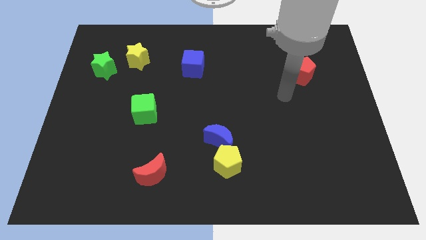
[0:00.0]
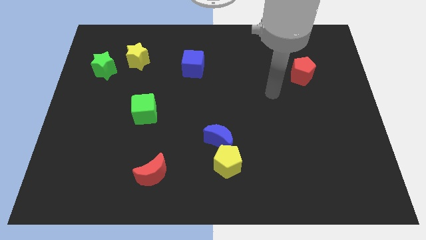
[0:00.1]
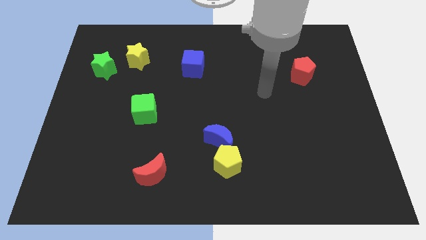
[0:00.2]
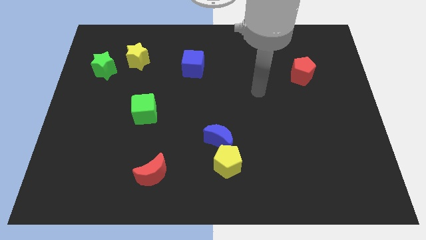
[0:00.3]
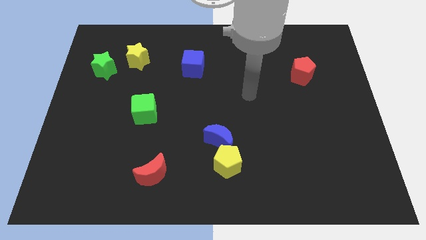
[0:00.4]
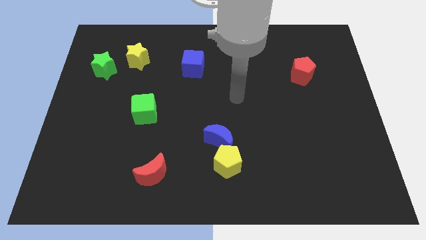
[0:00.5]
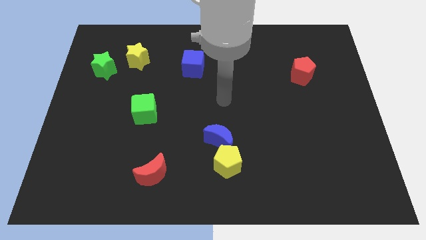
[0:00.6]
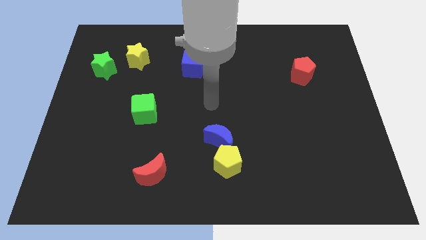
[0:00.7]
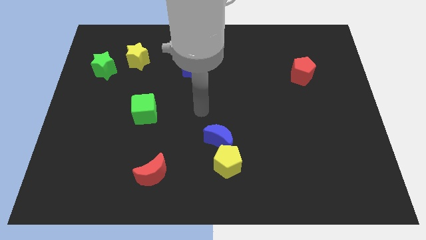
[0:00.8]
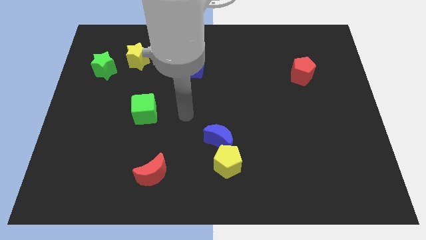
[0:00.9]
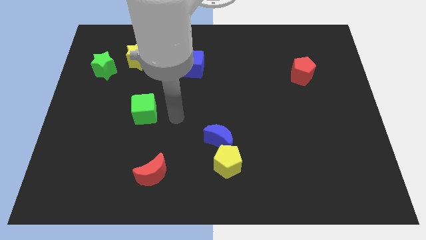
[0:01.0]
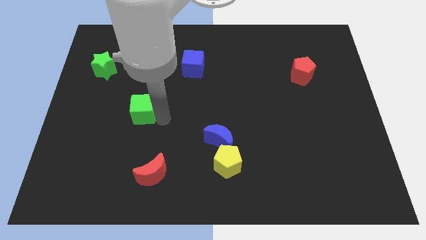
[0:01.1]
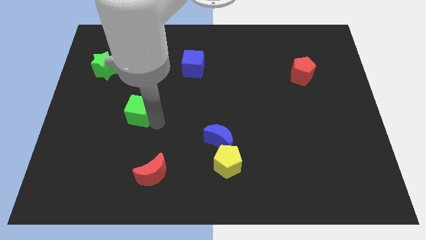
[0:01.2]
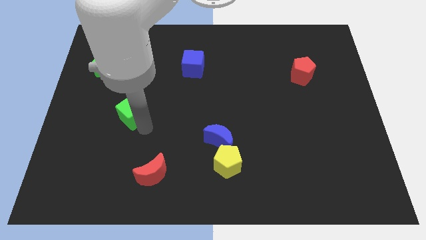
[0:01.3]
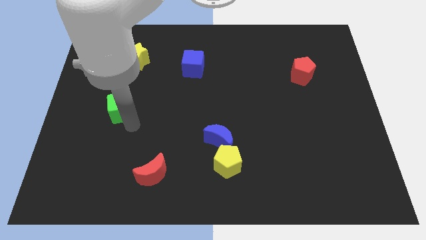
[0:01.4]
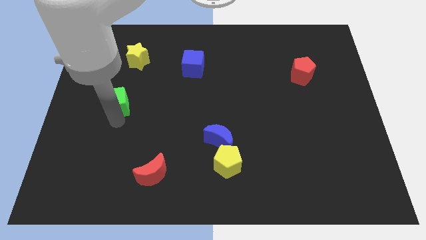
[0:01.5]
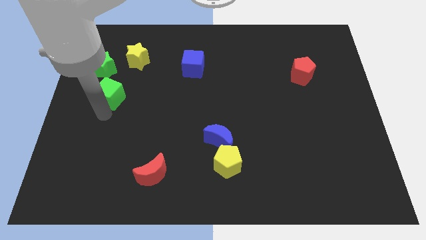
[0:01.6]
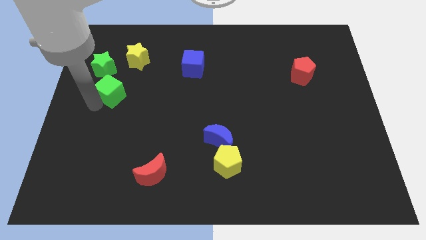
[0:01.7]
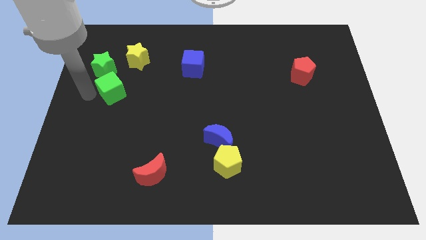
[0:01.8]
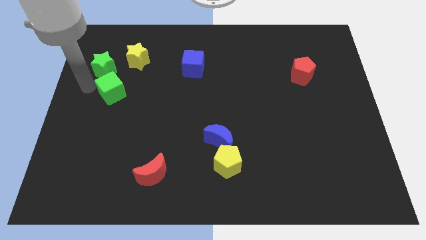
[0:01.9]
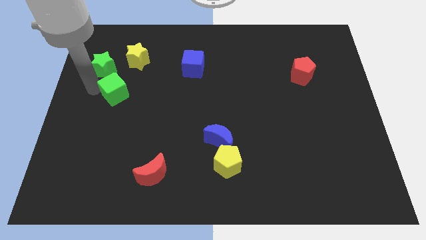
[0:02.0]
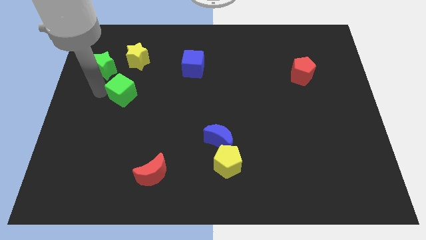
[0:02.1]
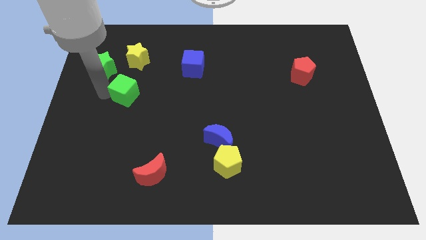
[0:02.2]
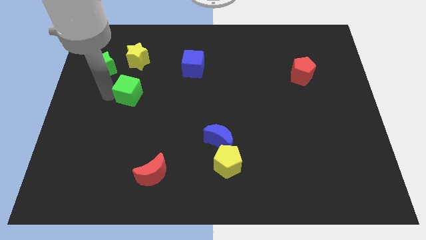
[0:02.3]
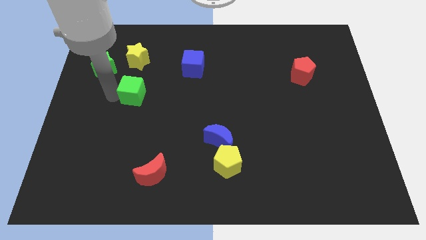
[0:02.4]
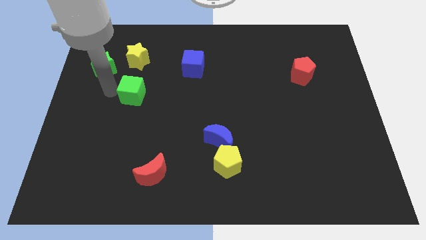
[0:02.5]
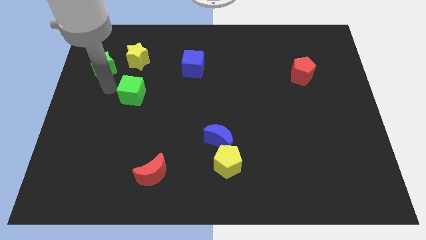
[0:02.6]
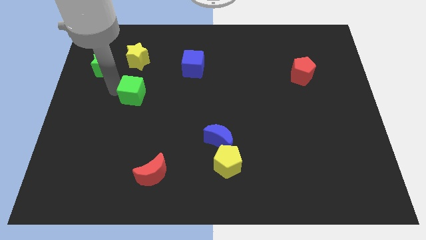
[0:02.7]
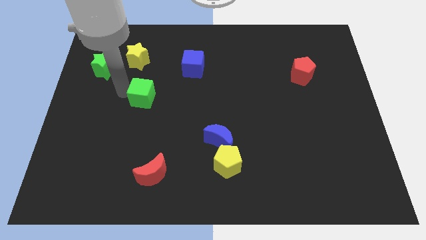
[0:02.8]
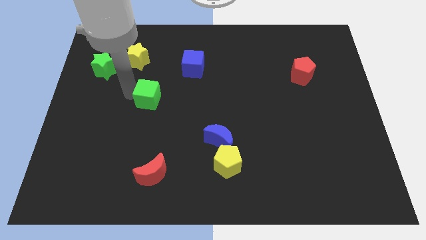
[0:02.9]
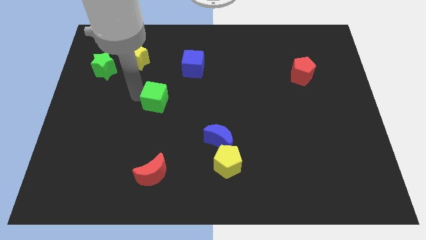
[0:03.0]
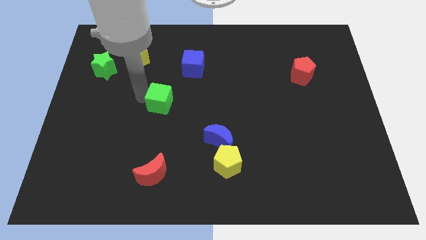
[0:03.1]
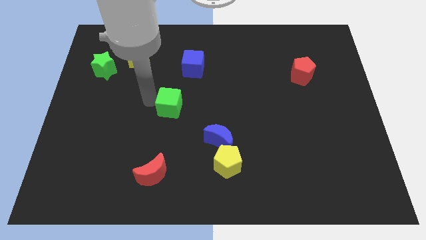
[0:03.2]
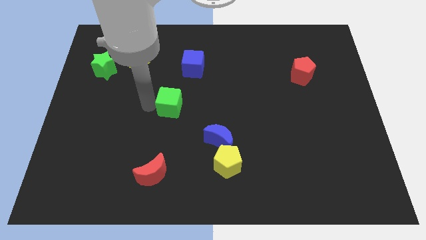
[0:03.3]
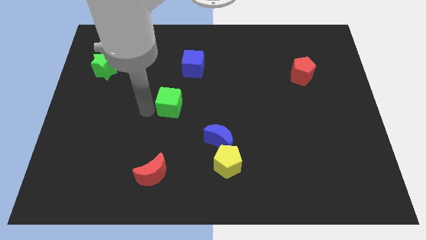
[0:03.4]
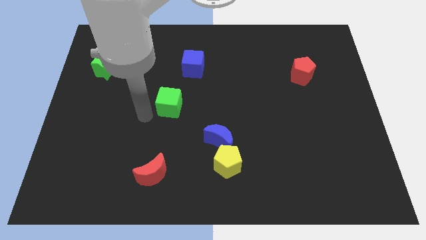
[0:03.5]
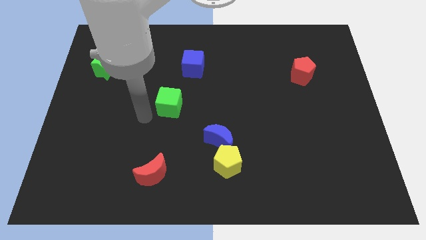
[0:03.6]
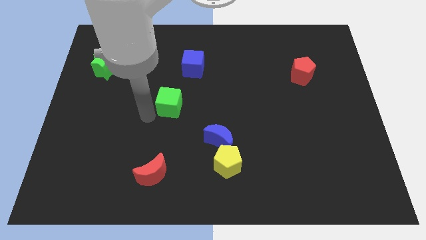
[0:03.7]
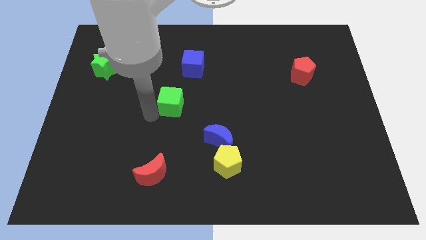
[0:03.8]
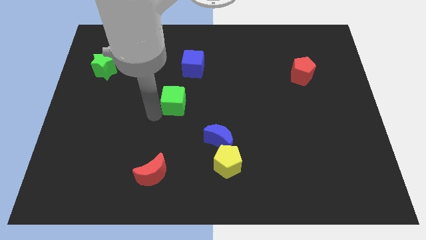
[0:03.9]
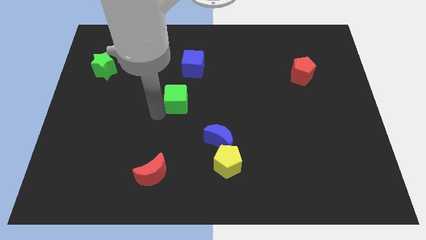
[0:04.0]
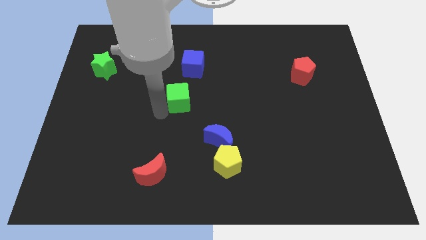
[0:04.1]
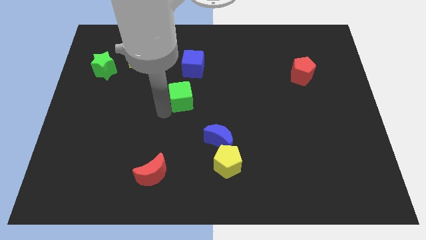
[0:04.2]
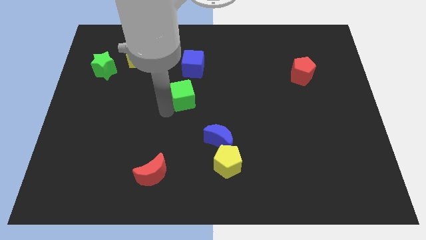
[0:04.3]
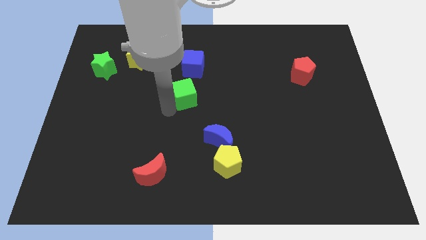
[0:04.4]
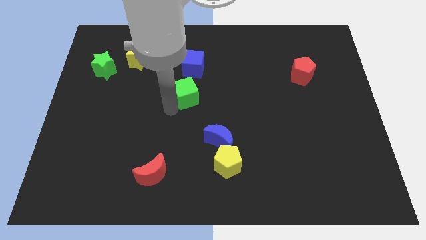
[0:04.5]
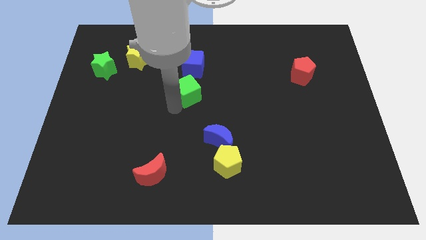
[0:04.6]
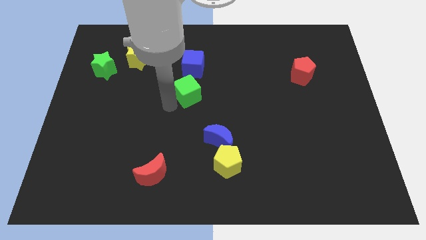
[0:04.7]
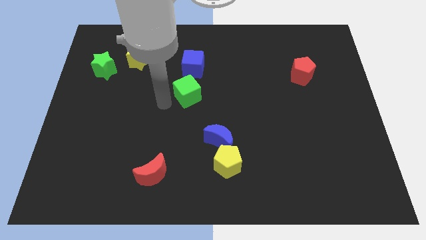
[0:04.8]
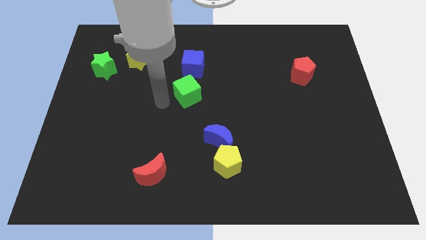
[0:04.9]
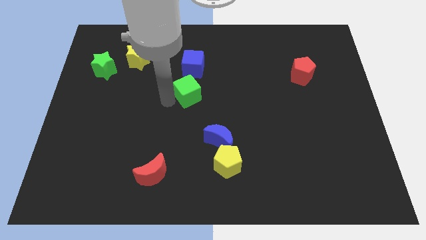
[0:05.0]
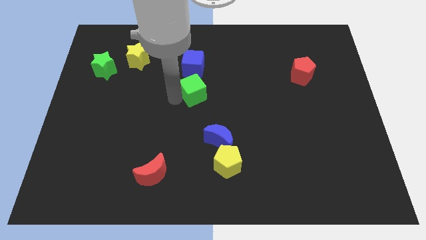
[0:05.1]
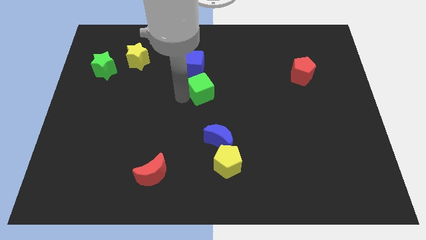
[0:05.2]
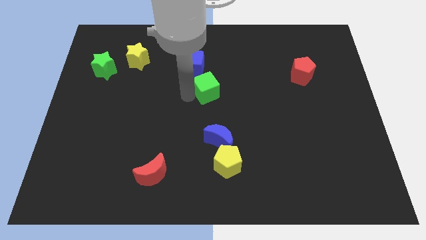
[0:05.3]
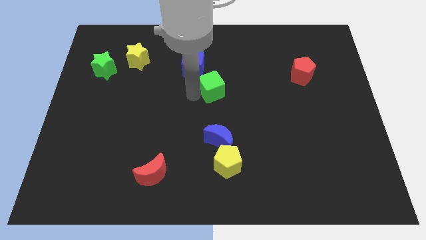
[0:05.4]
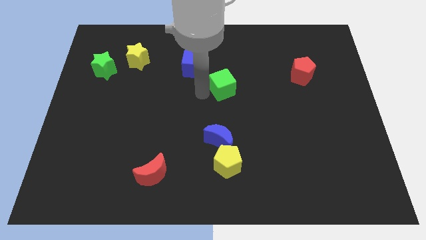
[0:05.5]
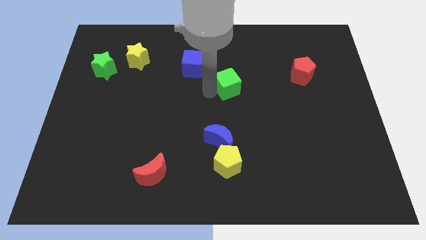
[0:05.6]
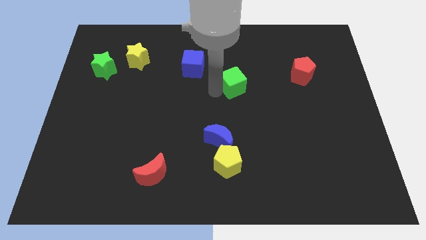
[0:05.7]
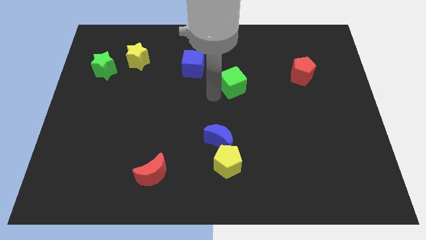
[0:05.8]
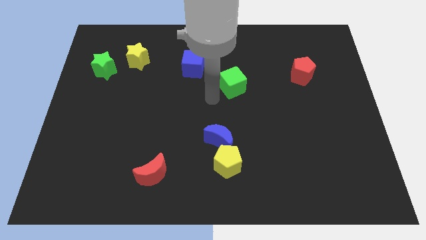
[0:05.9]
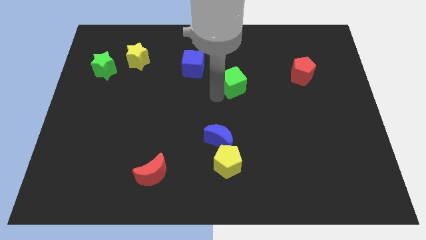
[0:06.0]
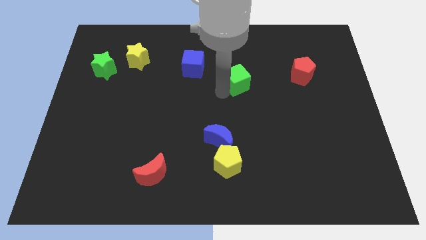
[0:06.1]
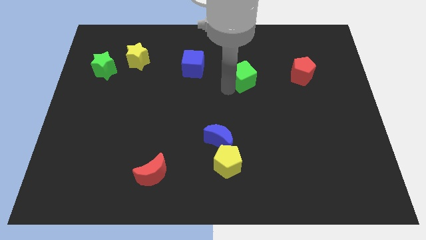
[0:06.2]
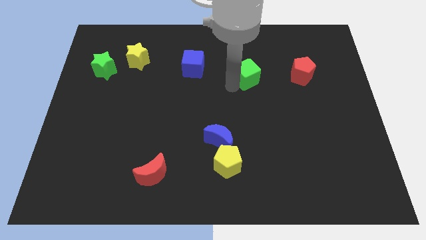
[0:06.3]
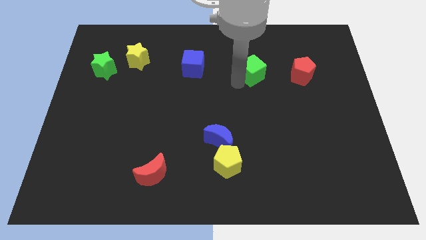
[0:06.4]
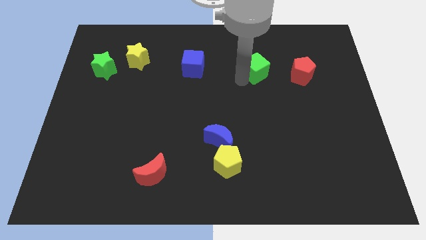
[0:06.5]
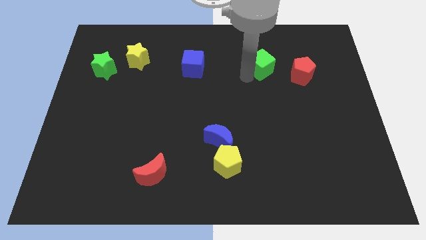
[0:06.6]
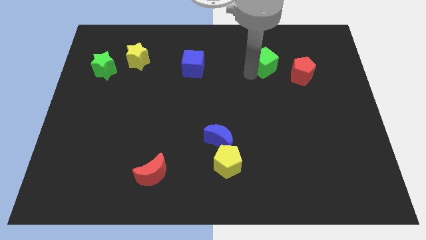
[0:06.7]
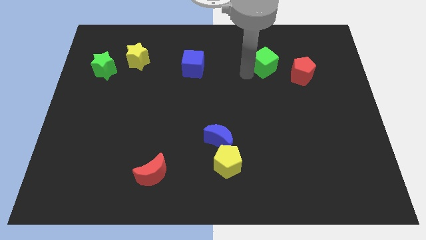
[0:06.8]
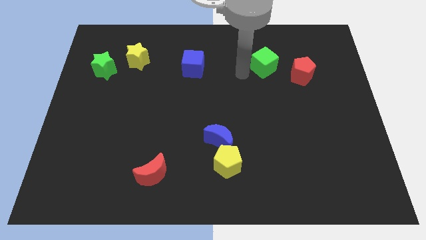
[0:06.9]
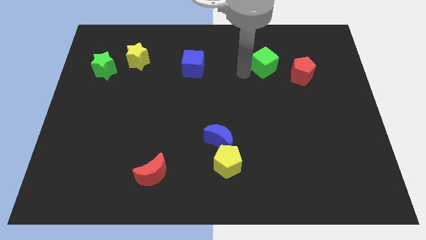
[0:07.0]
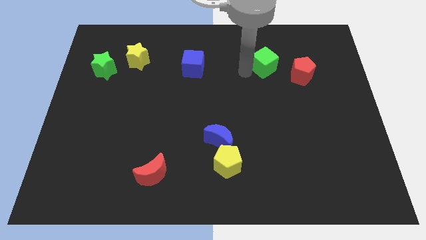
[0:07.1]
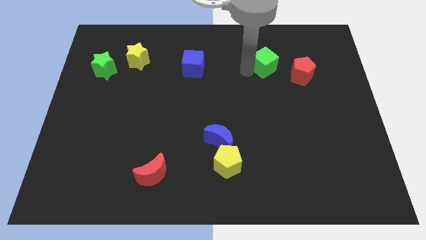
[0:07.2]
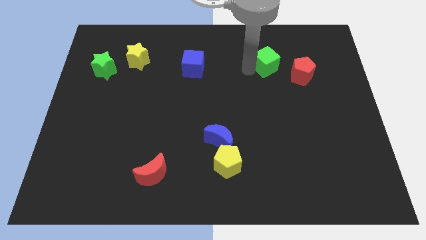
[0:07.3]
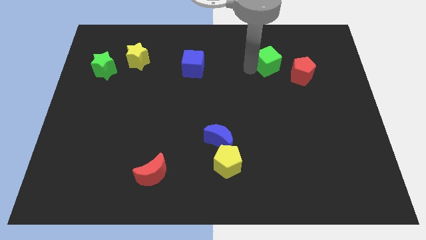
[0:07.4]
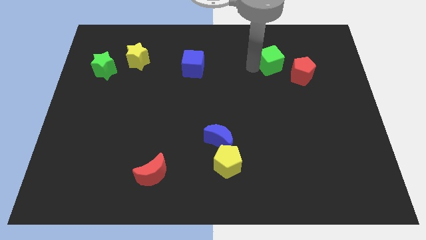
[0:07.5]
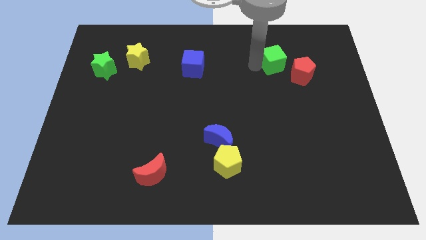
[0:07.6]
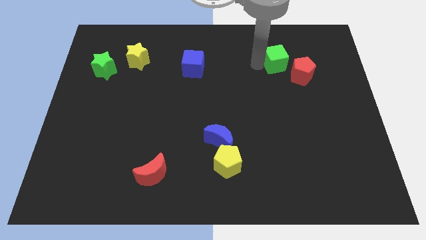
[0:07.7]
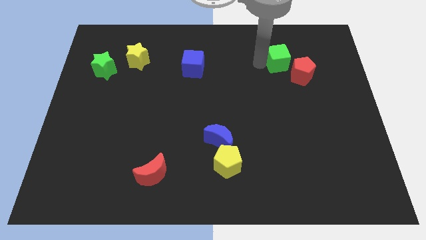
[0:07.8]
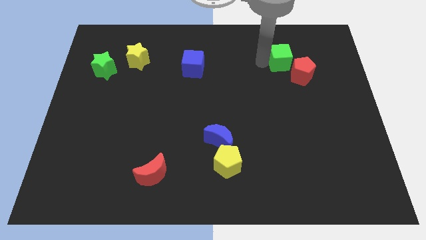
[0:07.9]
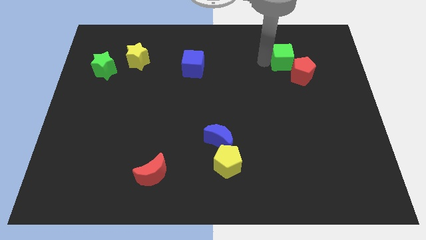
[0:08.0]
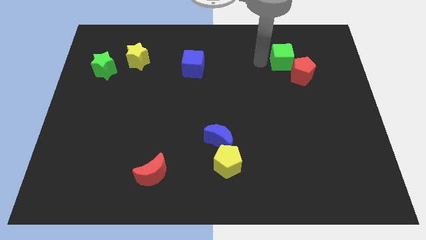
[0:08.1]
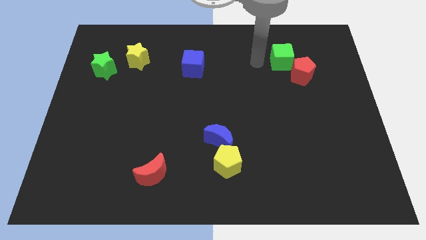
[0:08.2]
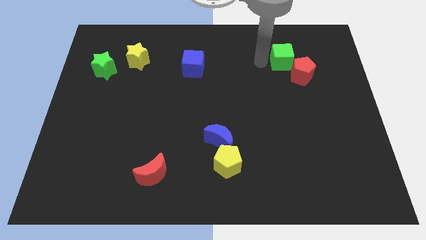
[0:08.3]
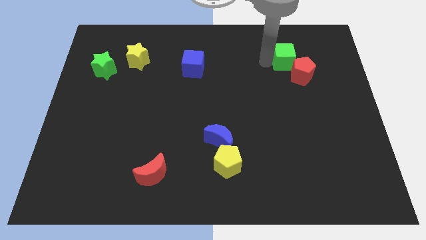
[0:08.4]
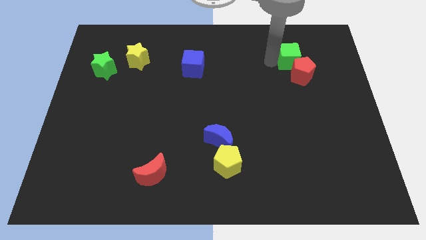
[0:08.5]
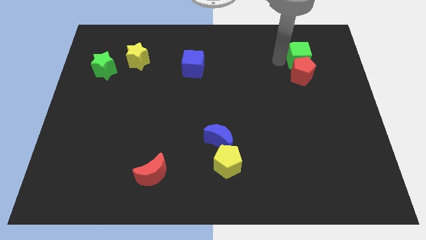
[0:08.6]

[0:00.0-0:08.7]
push the green cube to the top right side of the red pentagon
